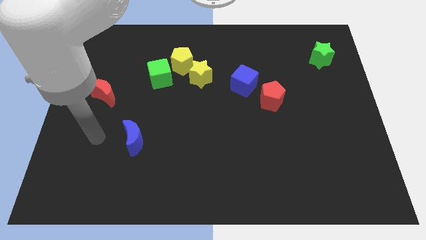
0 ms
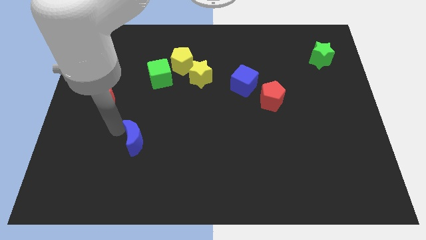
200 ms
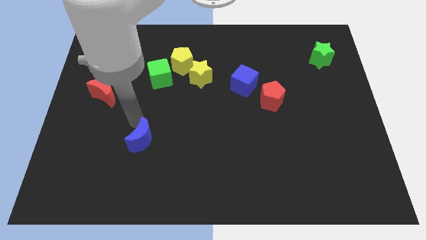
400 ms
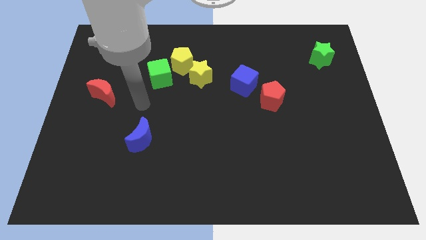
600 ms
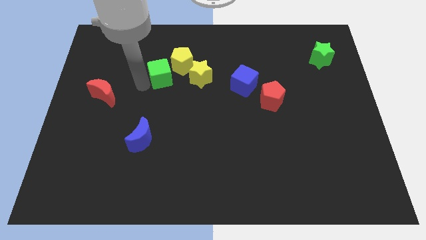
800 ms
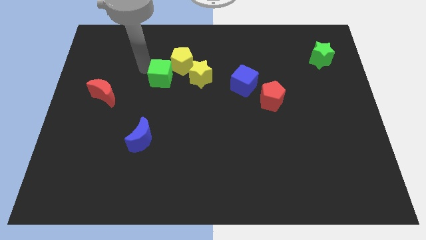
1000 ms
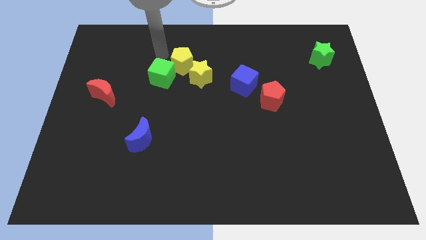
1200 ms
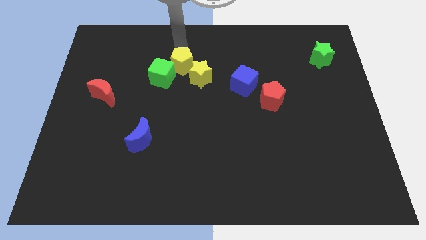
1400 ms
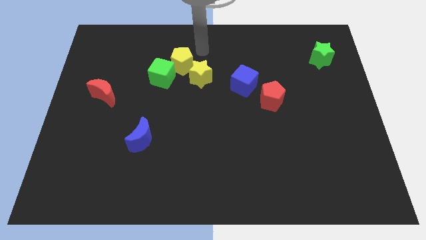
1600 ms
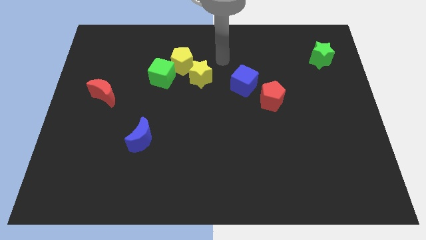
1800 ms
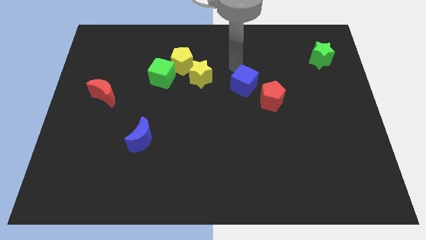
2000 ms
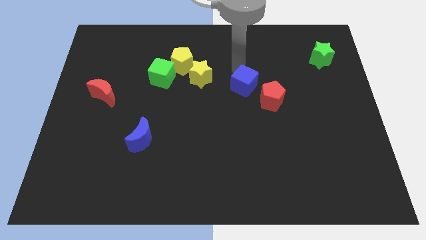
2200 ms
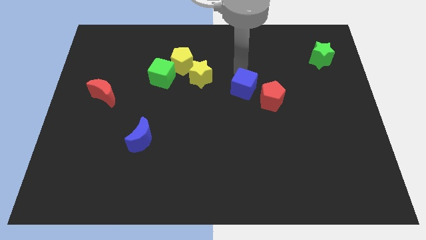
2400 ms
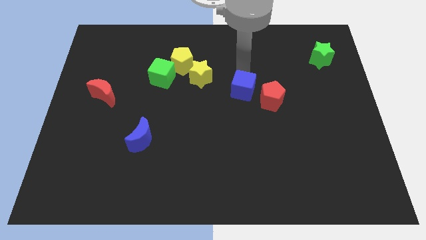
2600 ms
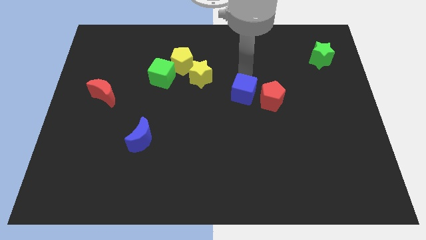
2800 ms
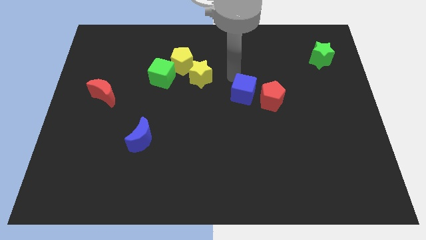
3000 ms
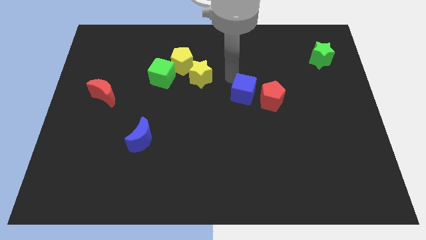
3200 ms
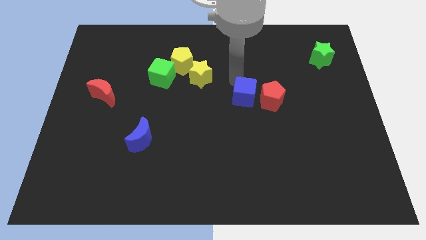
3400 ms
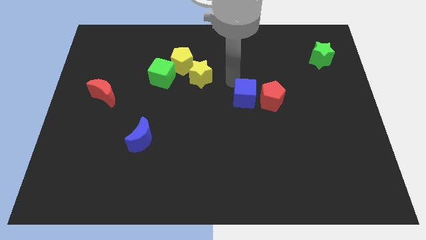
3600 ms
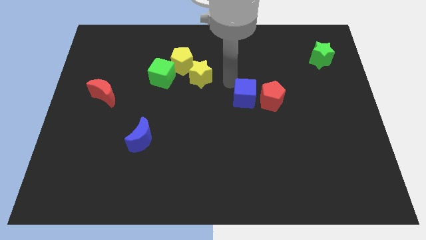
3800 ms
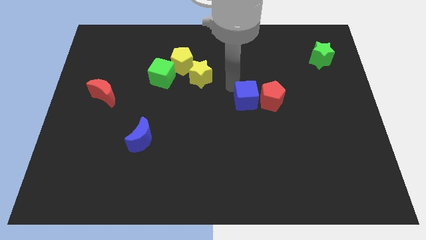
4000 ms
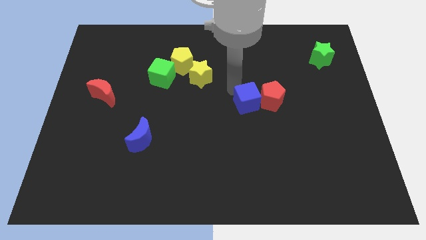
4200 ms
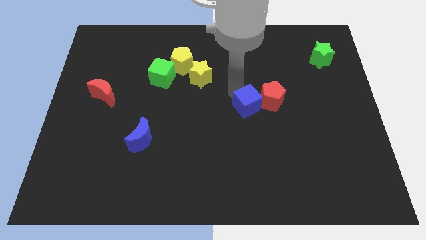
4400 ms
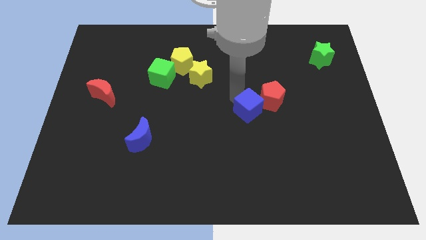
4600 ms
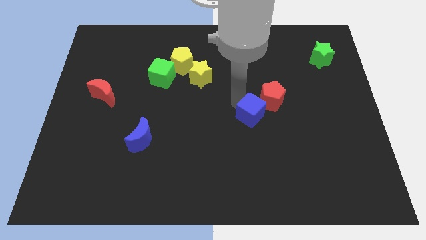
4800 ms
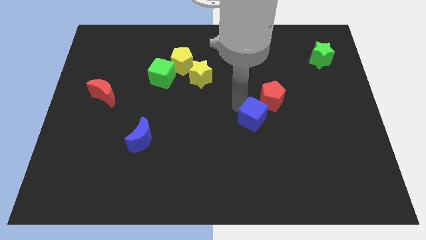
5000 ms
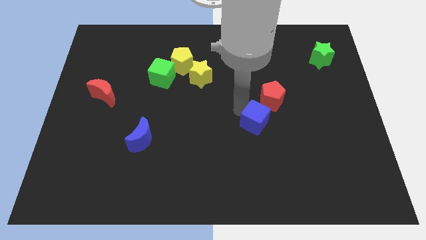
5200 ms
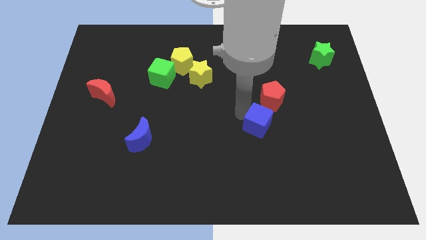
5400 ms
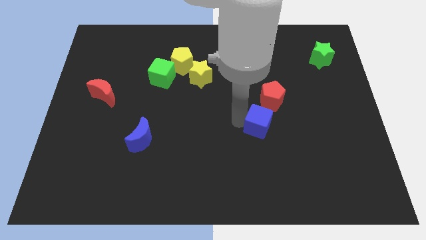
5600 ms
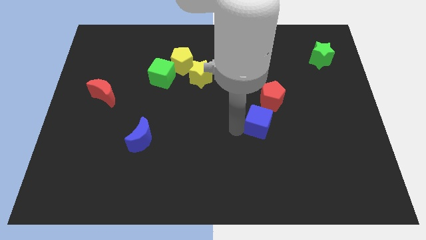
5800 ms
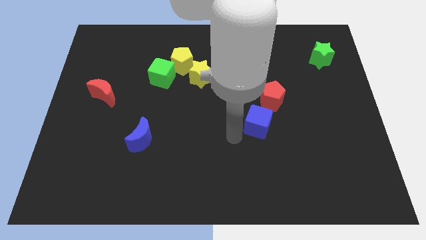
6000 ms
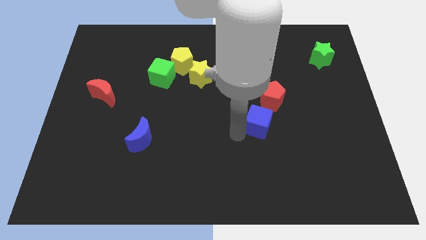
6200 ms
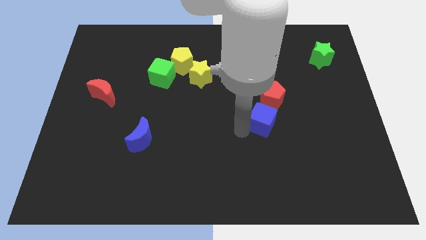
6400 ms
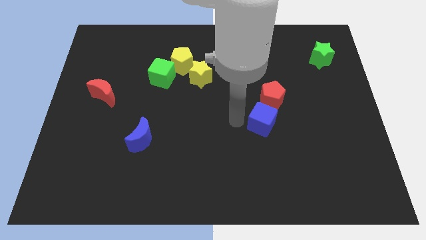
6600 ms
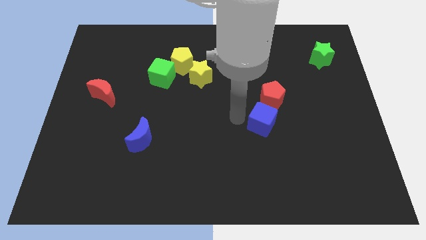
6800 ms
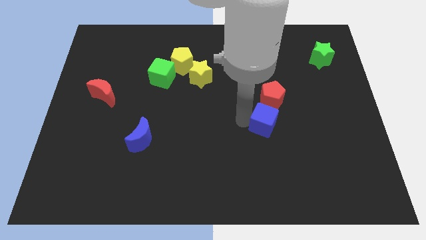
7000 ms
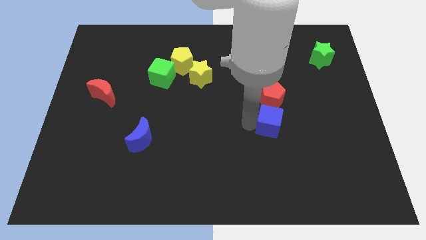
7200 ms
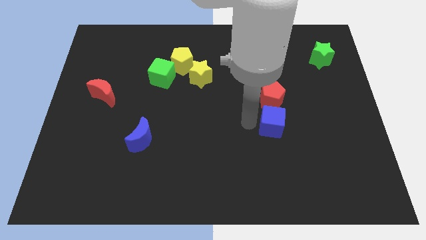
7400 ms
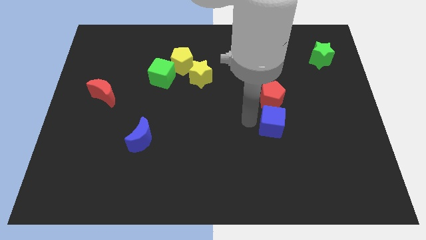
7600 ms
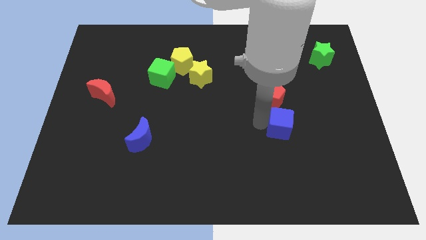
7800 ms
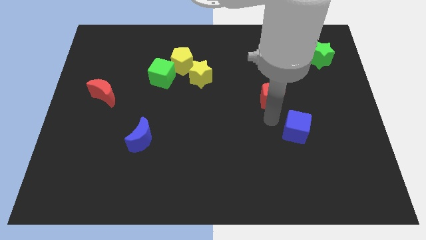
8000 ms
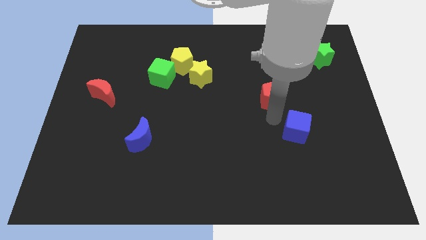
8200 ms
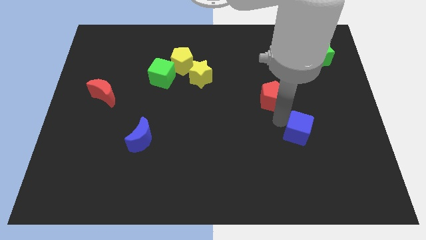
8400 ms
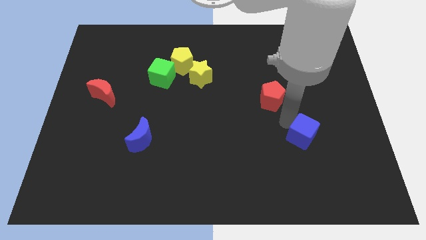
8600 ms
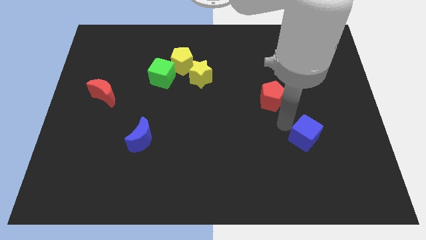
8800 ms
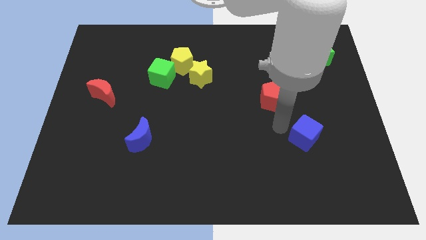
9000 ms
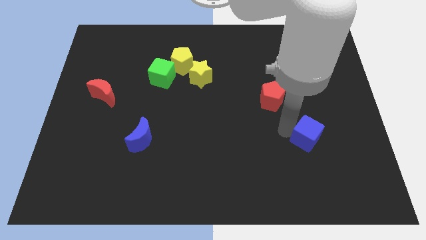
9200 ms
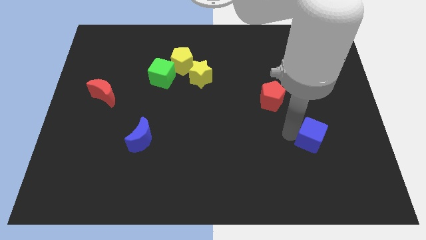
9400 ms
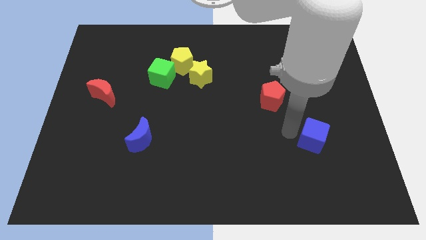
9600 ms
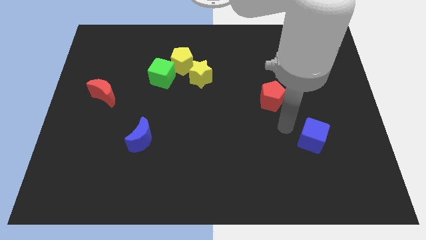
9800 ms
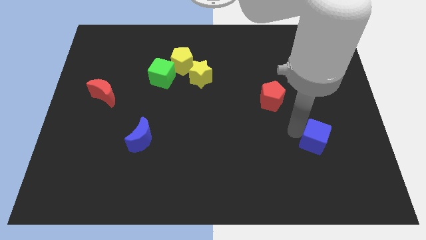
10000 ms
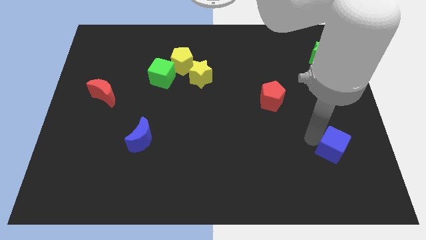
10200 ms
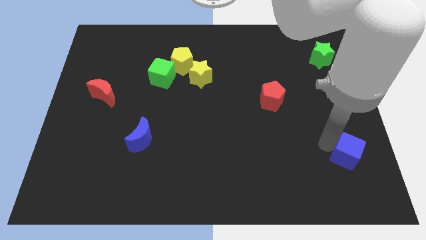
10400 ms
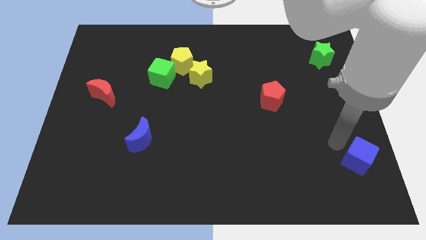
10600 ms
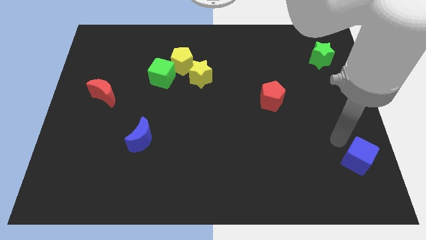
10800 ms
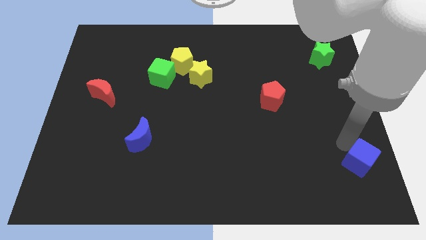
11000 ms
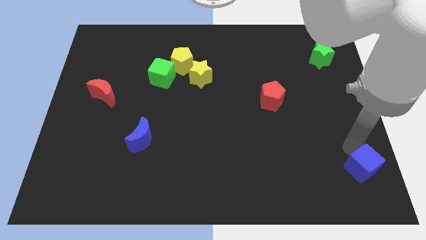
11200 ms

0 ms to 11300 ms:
slide the blue cube to the bottom right of the board

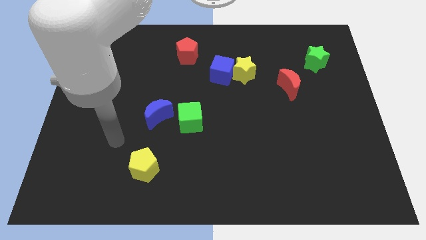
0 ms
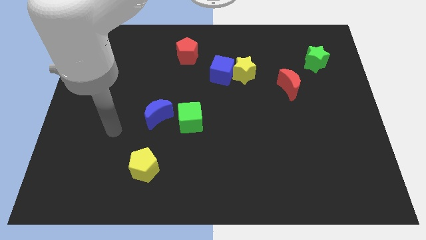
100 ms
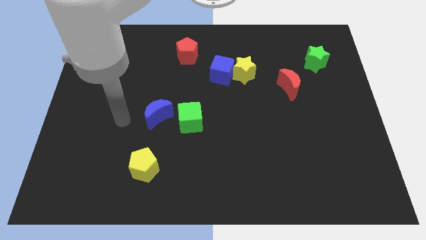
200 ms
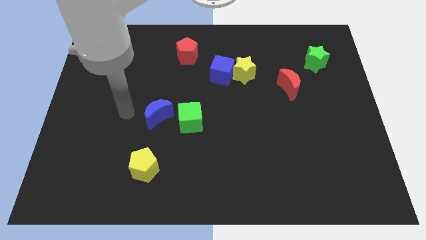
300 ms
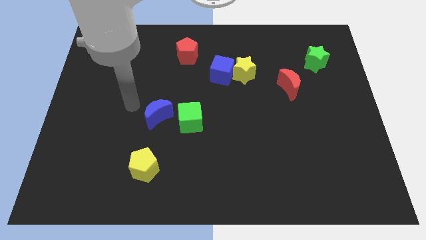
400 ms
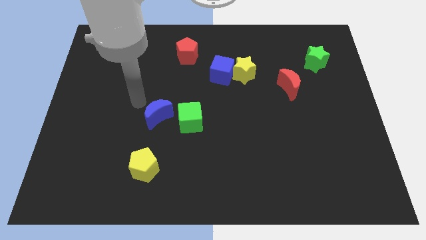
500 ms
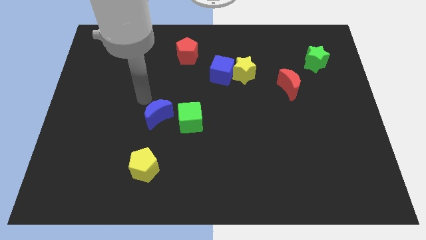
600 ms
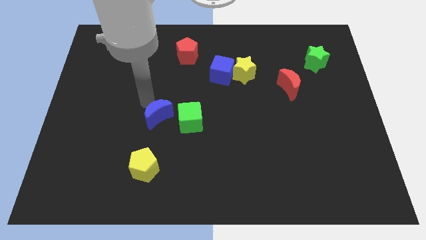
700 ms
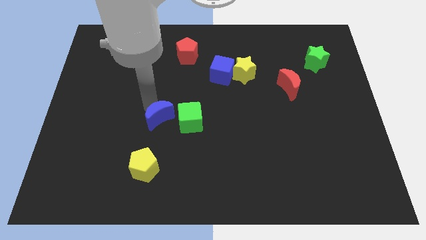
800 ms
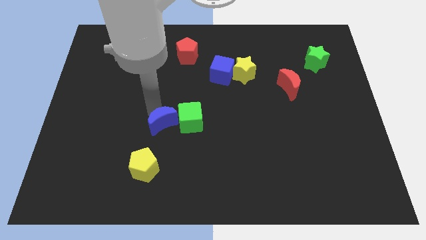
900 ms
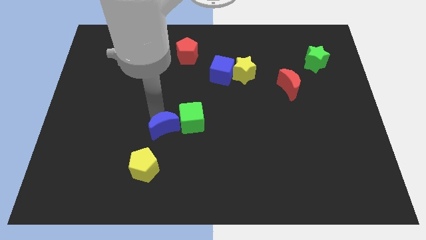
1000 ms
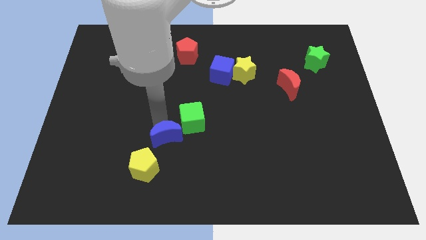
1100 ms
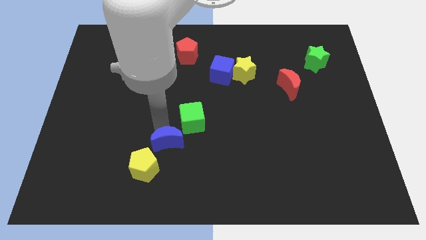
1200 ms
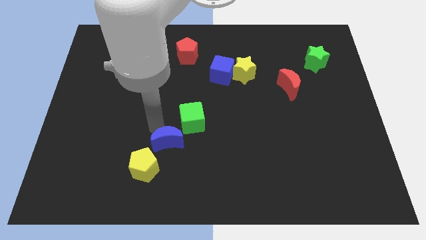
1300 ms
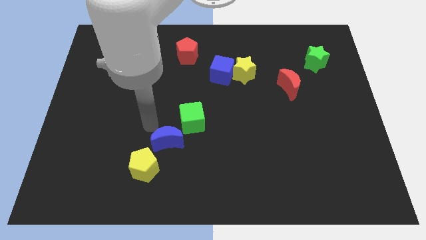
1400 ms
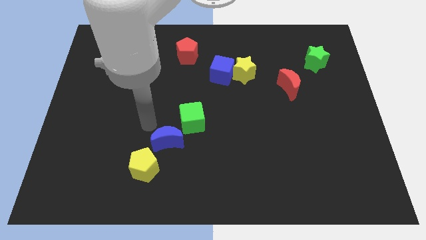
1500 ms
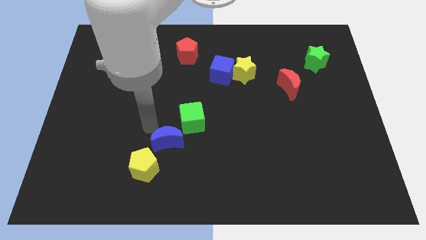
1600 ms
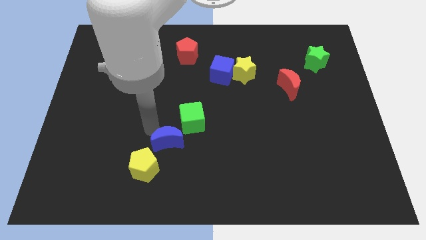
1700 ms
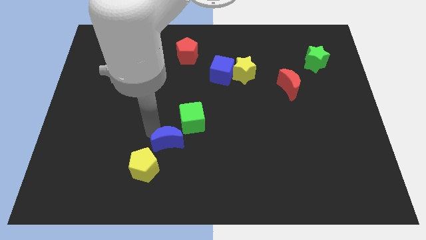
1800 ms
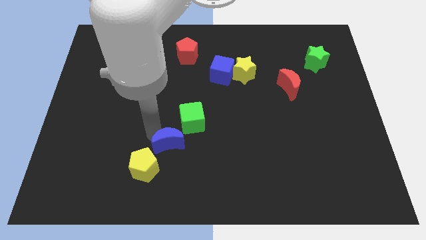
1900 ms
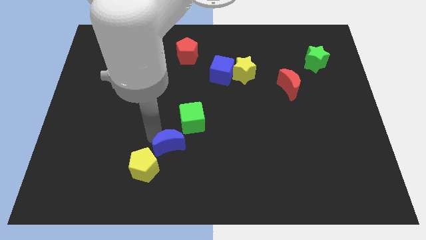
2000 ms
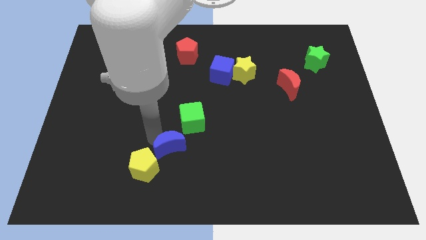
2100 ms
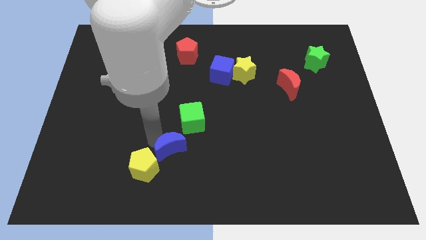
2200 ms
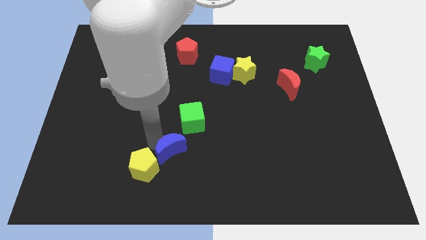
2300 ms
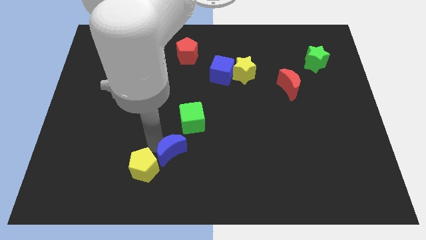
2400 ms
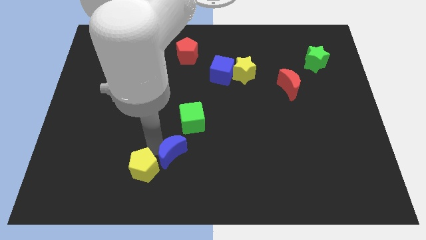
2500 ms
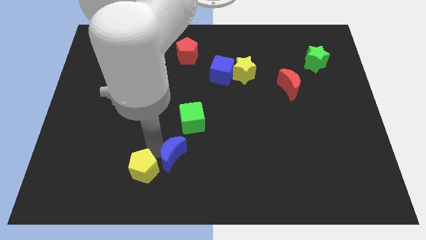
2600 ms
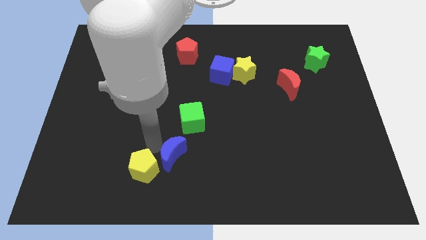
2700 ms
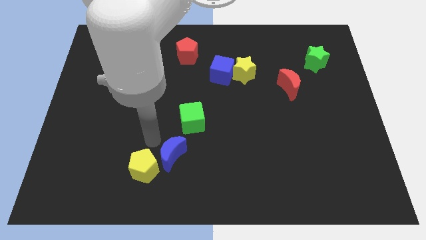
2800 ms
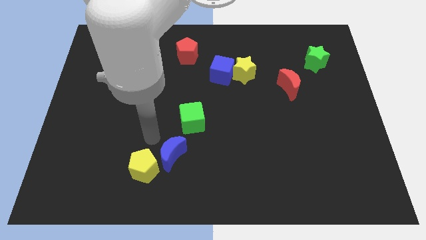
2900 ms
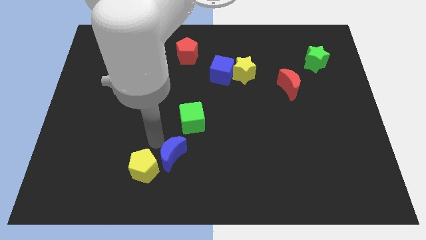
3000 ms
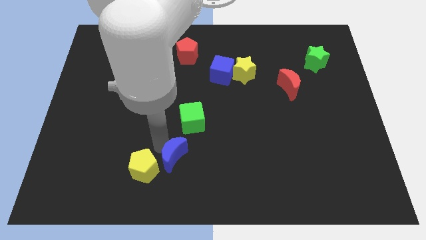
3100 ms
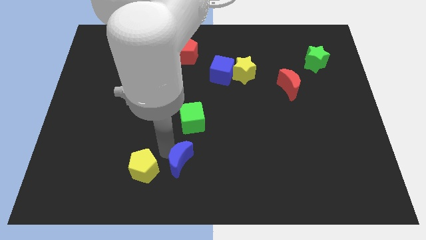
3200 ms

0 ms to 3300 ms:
push the blue moon to the bottom
